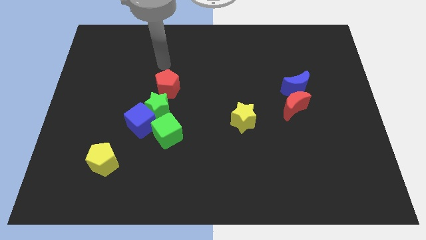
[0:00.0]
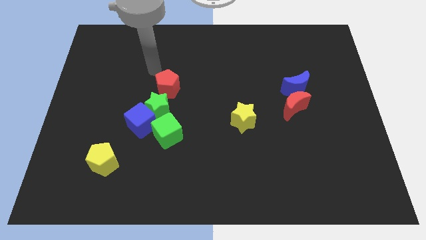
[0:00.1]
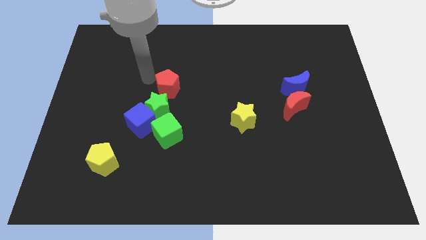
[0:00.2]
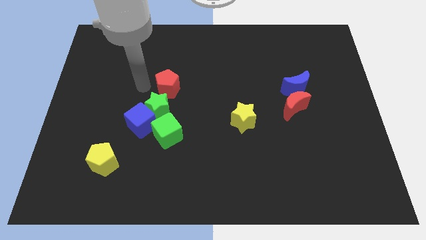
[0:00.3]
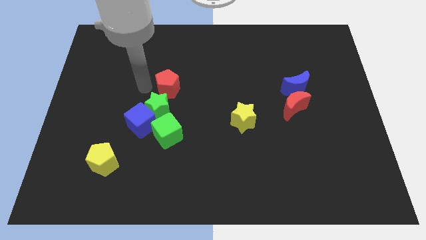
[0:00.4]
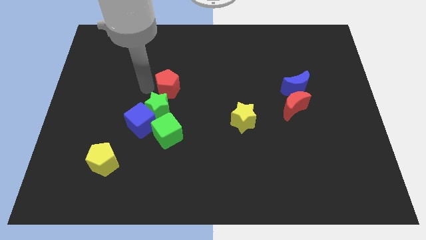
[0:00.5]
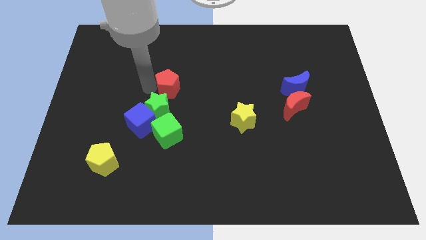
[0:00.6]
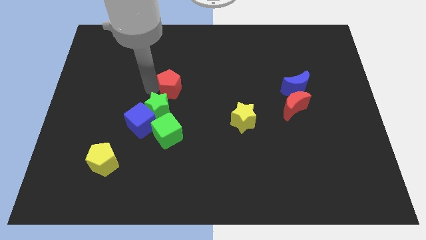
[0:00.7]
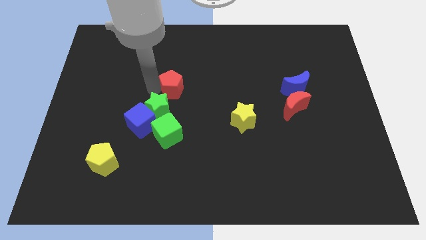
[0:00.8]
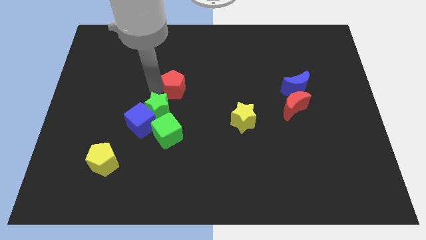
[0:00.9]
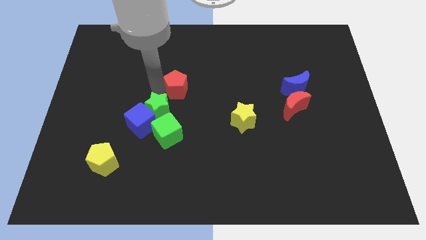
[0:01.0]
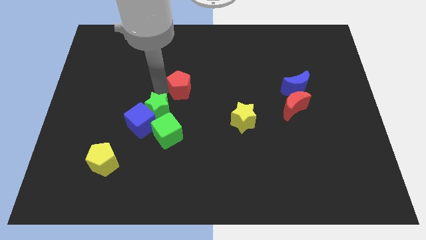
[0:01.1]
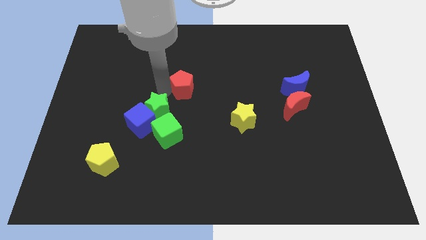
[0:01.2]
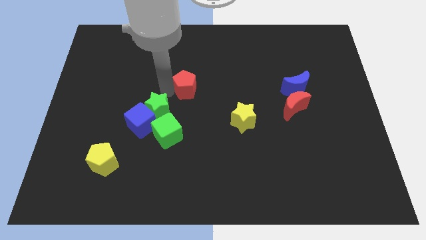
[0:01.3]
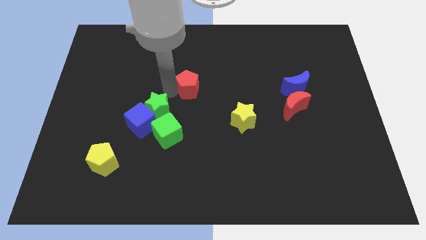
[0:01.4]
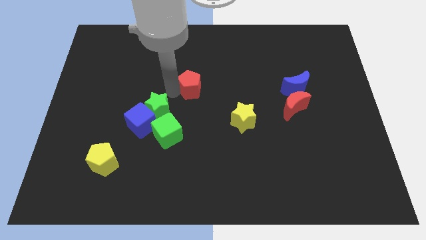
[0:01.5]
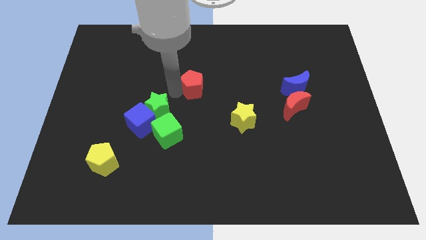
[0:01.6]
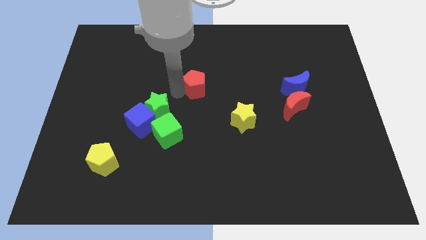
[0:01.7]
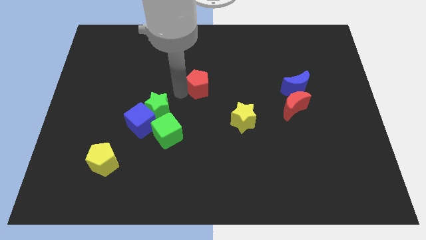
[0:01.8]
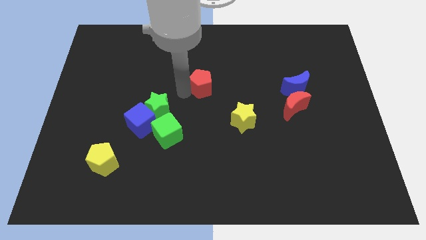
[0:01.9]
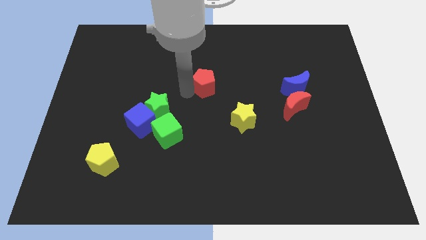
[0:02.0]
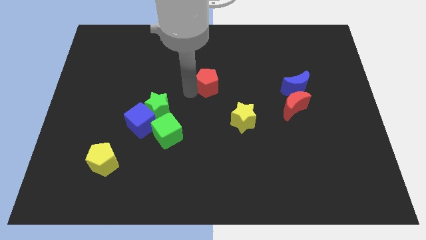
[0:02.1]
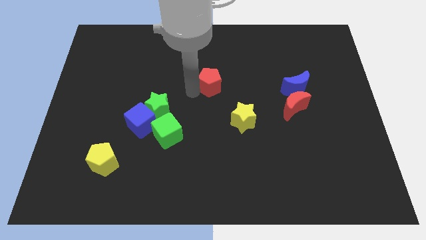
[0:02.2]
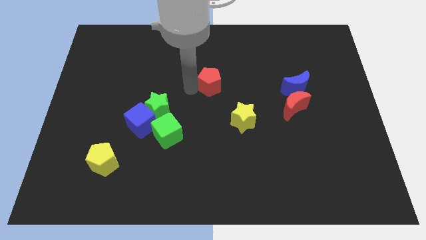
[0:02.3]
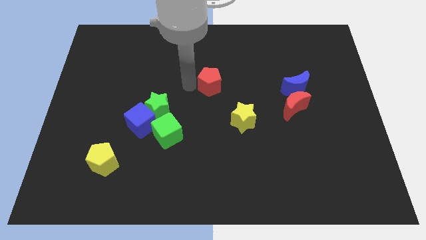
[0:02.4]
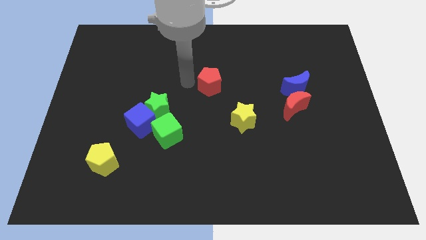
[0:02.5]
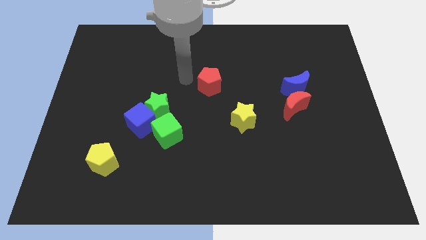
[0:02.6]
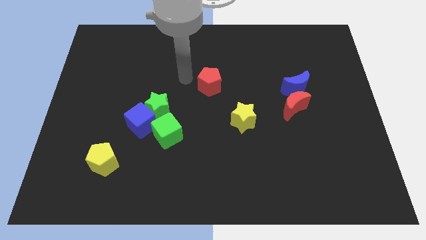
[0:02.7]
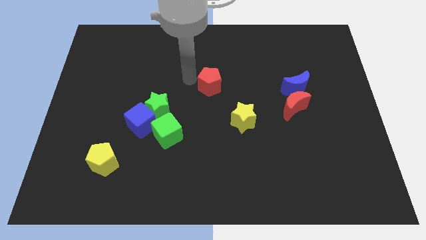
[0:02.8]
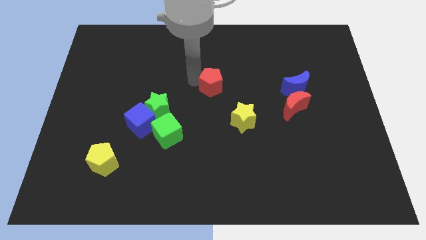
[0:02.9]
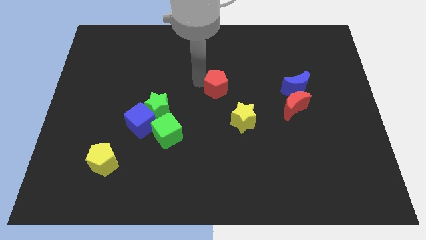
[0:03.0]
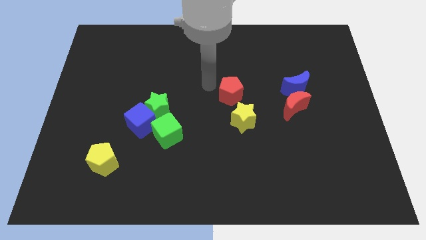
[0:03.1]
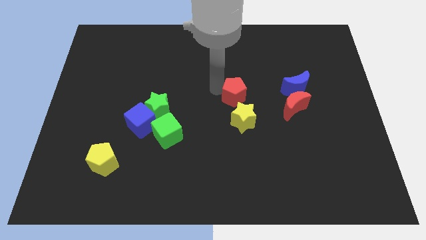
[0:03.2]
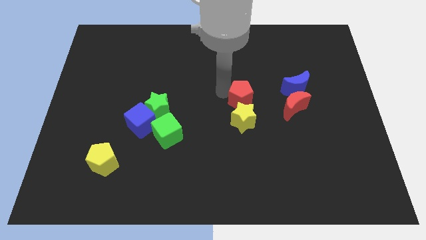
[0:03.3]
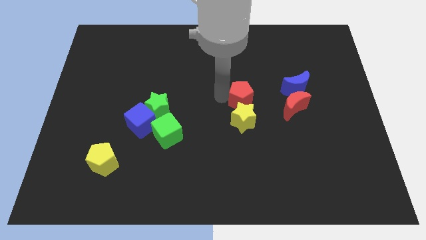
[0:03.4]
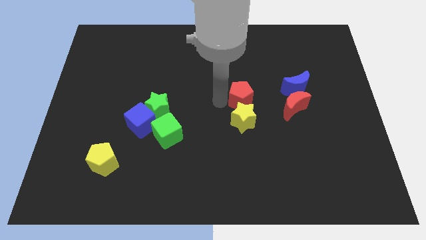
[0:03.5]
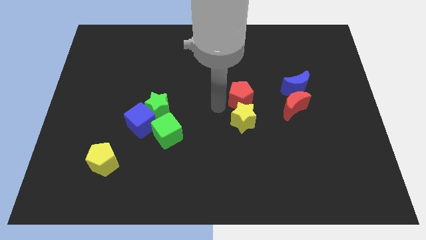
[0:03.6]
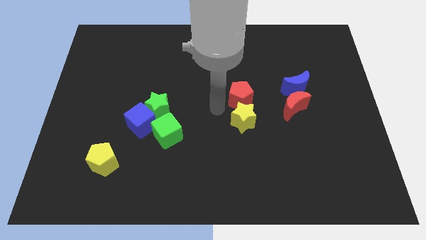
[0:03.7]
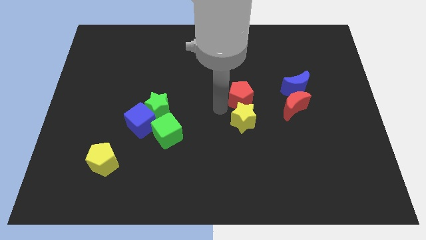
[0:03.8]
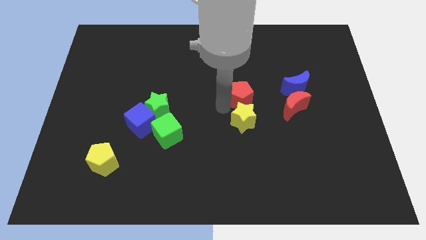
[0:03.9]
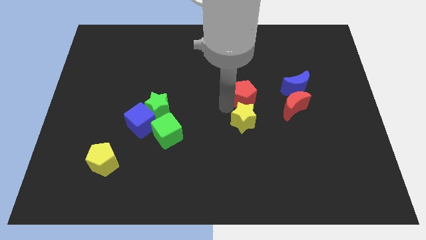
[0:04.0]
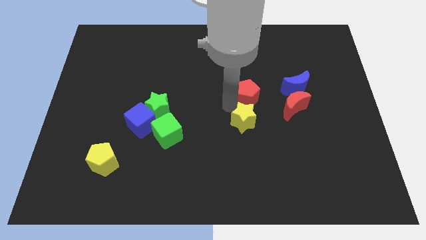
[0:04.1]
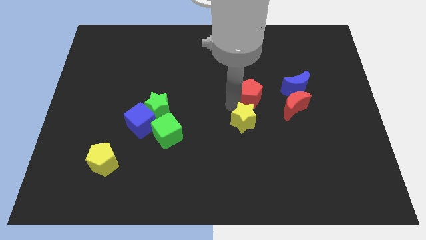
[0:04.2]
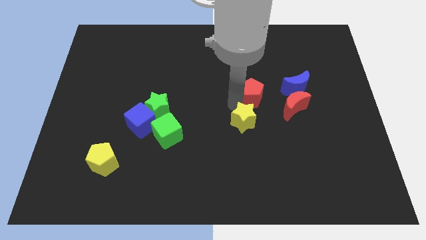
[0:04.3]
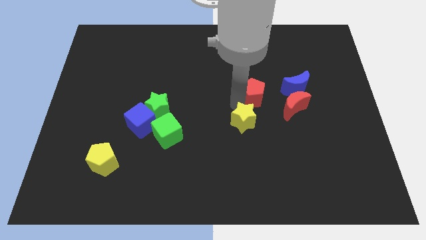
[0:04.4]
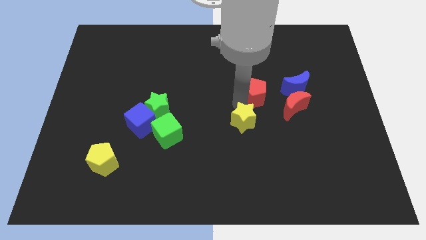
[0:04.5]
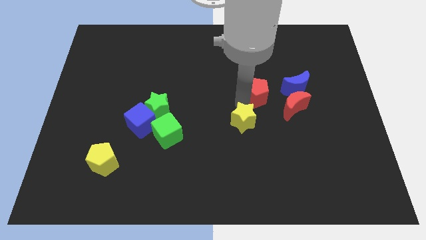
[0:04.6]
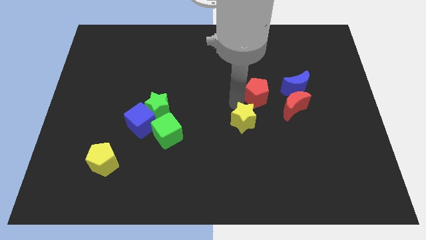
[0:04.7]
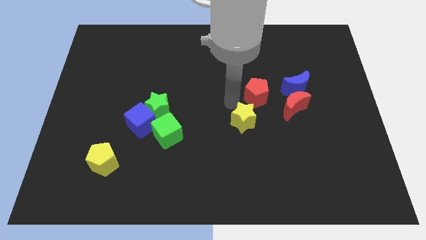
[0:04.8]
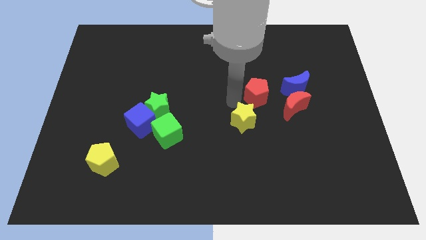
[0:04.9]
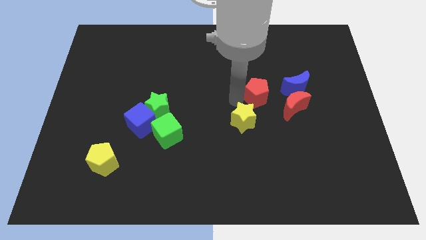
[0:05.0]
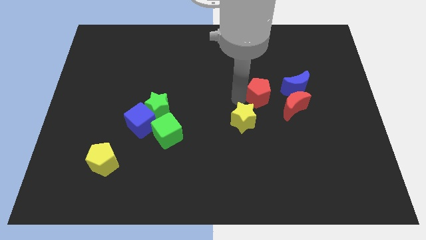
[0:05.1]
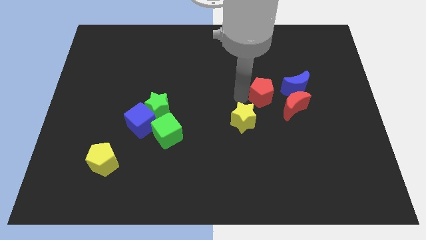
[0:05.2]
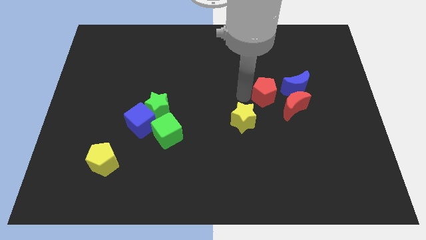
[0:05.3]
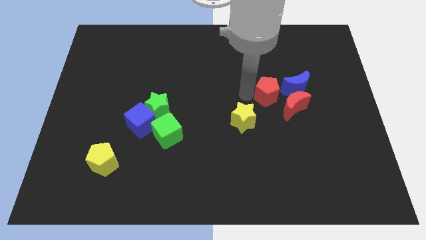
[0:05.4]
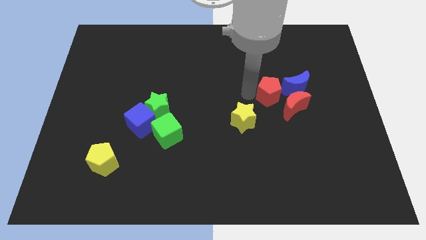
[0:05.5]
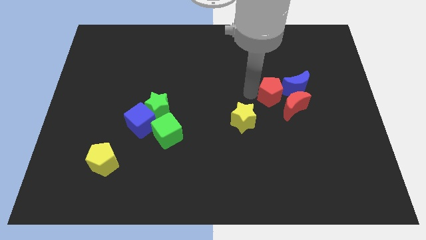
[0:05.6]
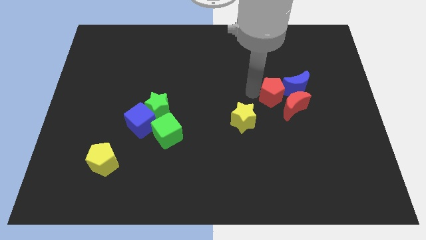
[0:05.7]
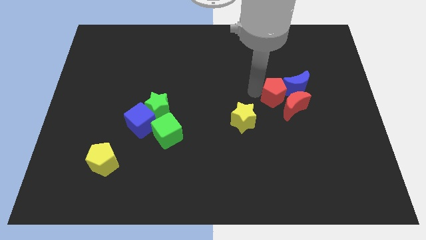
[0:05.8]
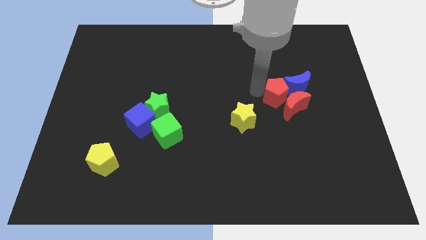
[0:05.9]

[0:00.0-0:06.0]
put the red pentagon close to the blue moon

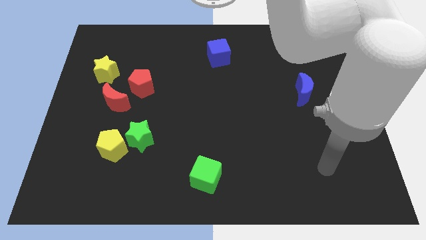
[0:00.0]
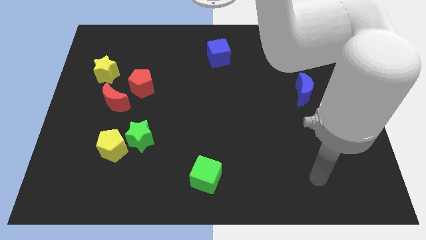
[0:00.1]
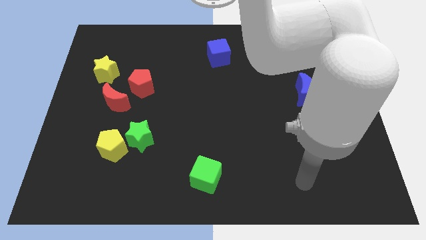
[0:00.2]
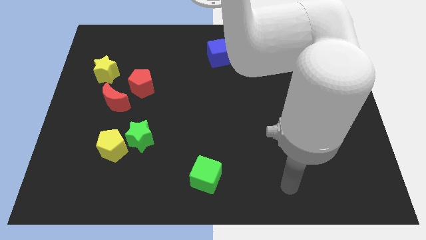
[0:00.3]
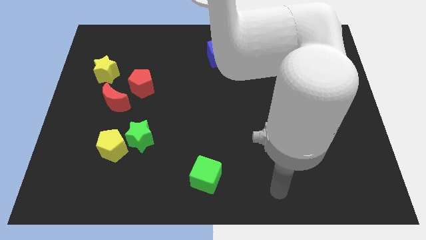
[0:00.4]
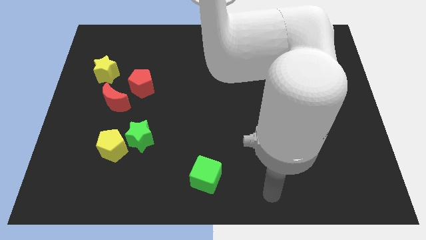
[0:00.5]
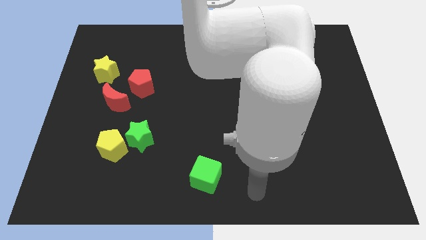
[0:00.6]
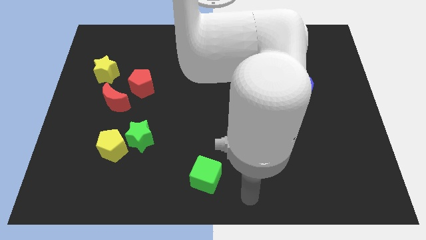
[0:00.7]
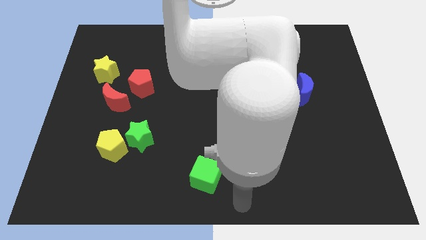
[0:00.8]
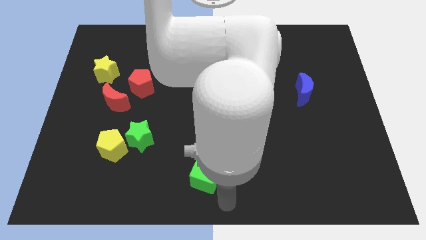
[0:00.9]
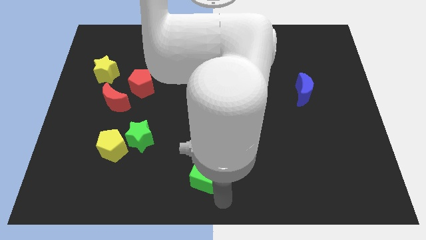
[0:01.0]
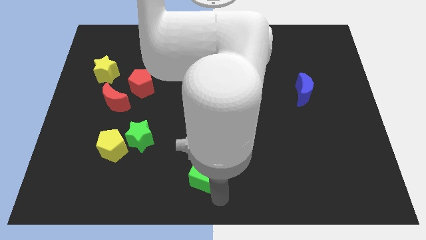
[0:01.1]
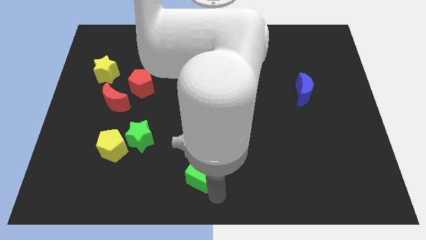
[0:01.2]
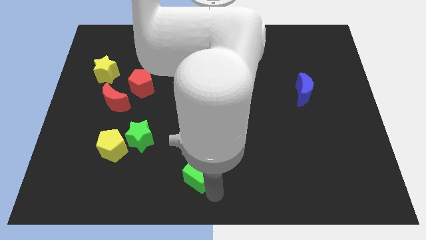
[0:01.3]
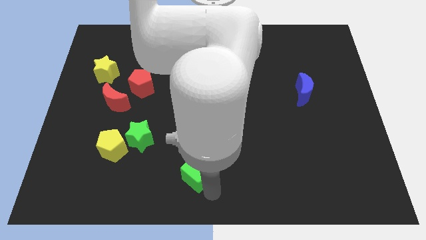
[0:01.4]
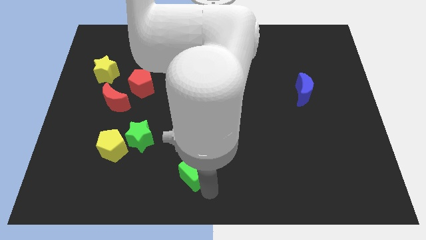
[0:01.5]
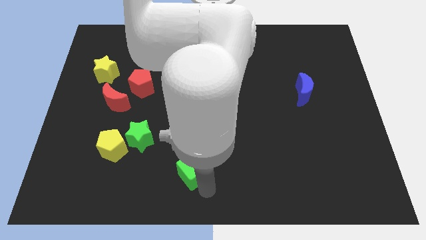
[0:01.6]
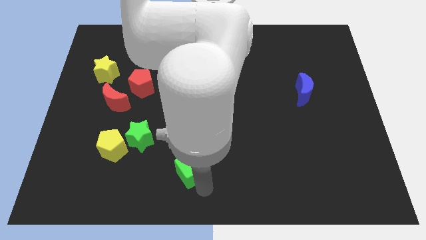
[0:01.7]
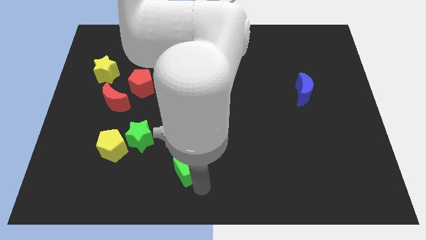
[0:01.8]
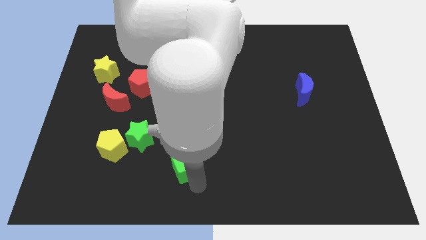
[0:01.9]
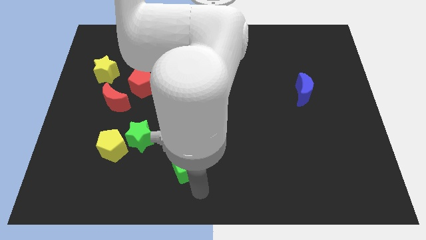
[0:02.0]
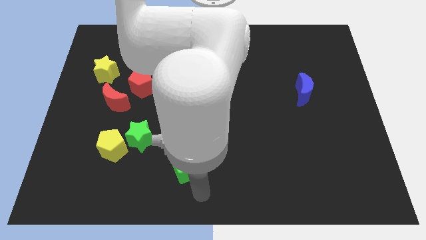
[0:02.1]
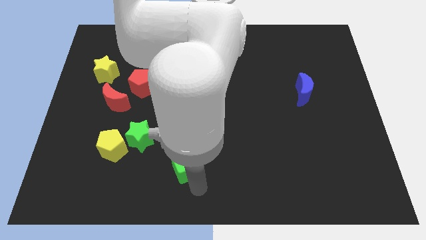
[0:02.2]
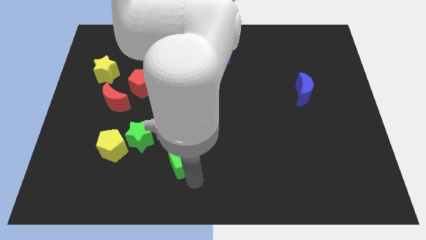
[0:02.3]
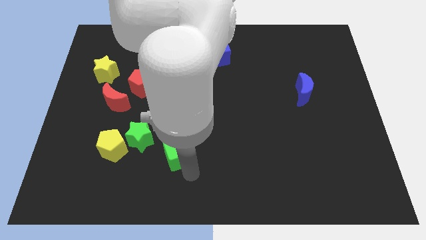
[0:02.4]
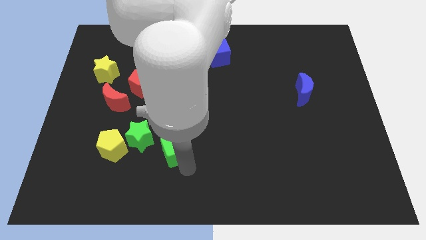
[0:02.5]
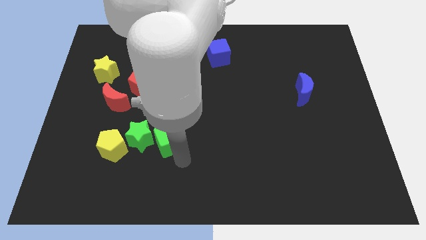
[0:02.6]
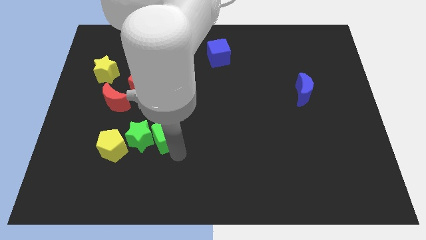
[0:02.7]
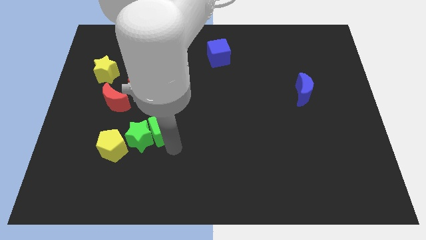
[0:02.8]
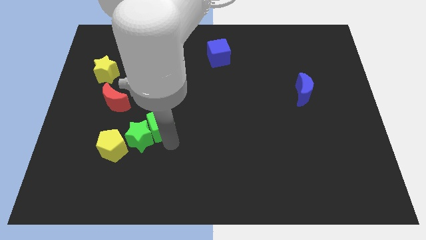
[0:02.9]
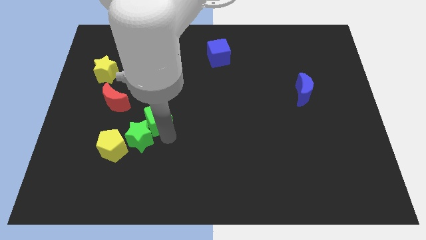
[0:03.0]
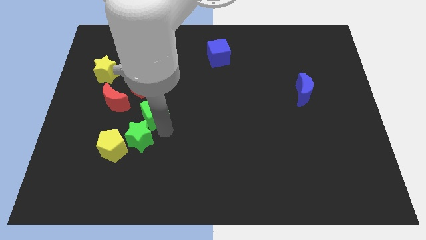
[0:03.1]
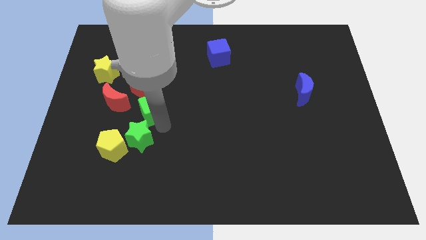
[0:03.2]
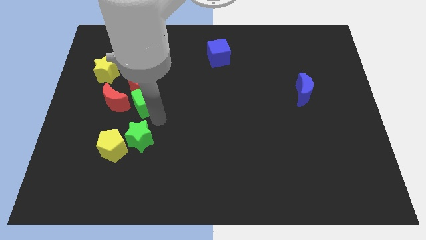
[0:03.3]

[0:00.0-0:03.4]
slide the green cube to the red pentagon
